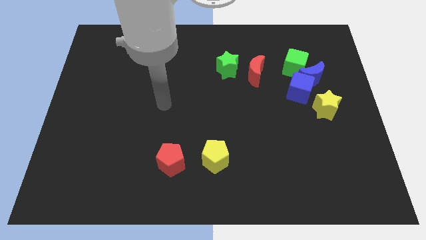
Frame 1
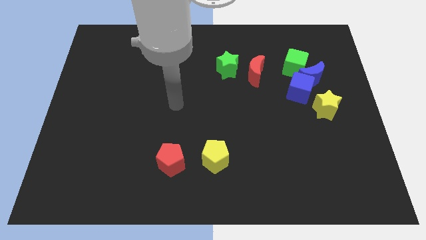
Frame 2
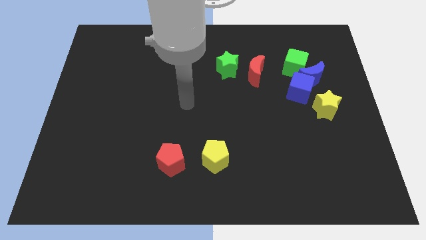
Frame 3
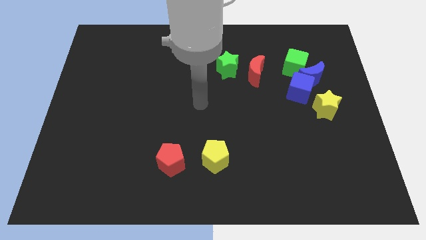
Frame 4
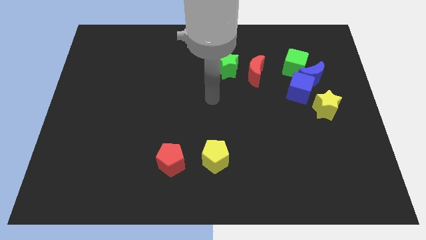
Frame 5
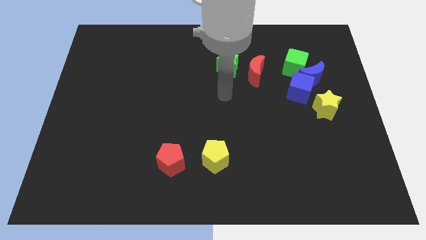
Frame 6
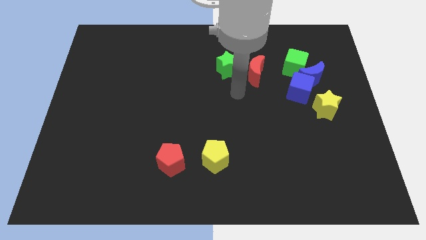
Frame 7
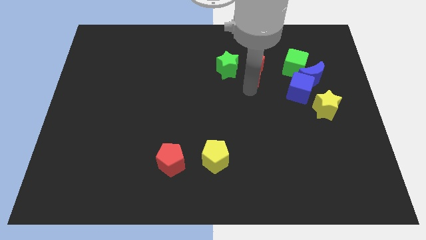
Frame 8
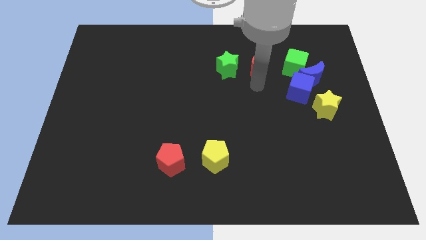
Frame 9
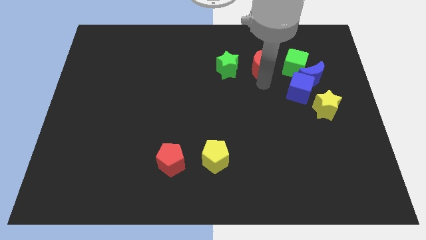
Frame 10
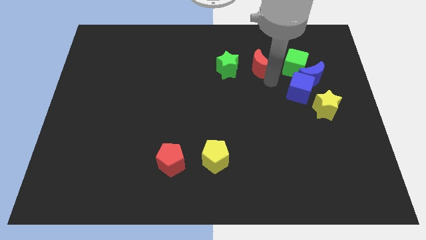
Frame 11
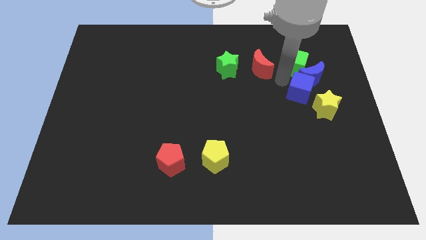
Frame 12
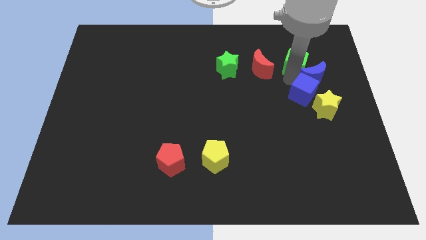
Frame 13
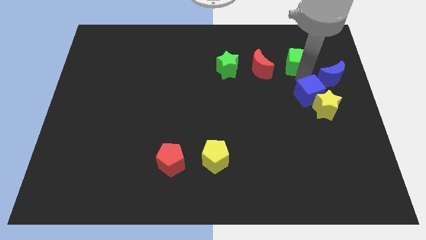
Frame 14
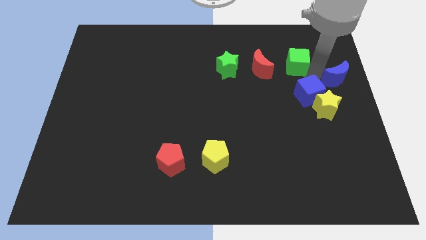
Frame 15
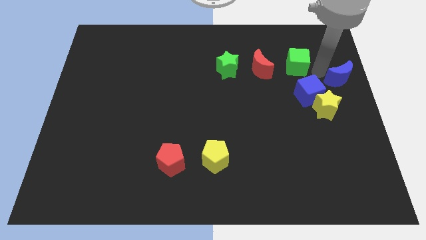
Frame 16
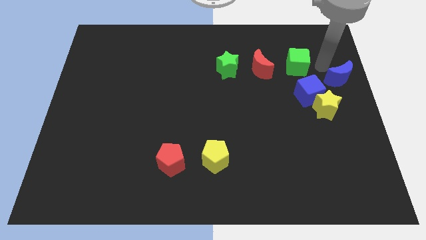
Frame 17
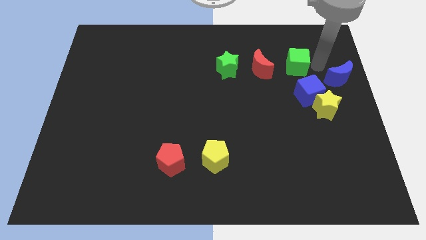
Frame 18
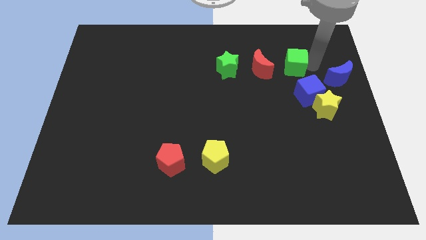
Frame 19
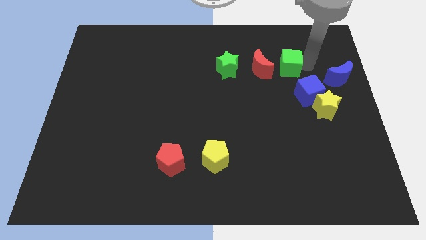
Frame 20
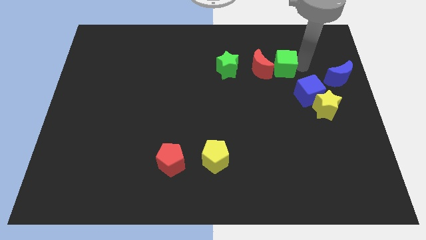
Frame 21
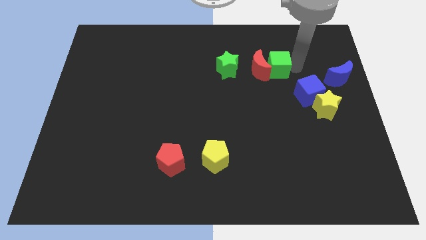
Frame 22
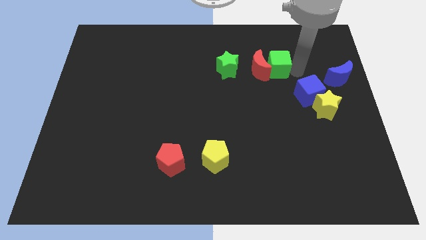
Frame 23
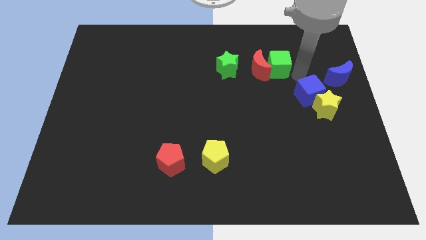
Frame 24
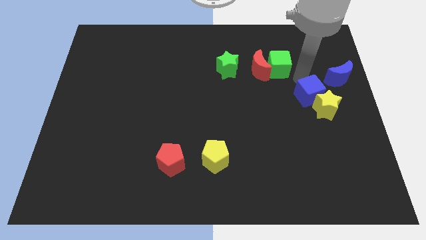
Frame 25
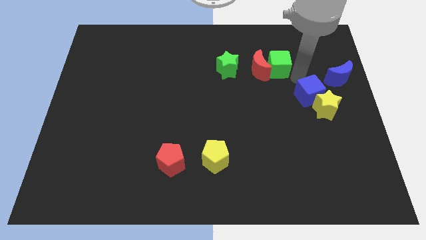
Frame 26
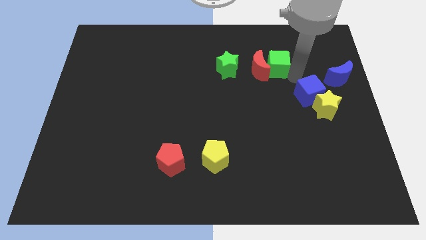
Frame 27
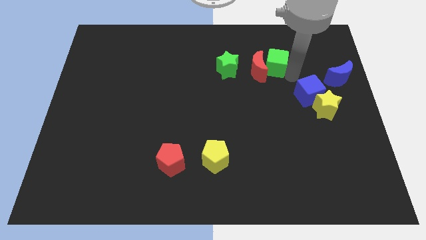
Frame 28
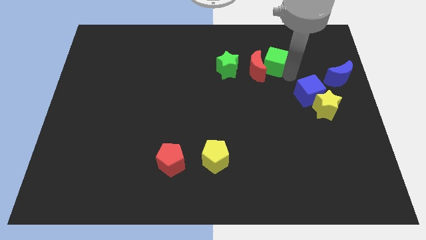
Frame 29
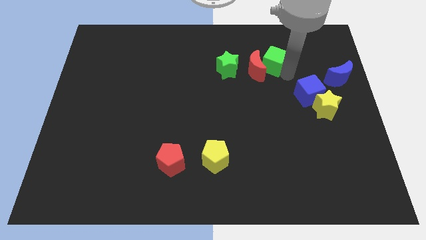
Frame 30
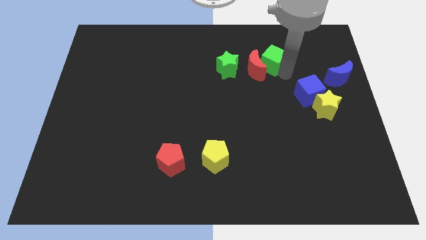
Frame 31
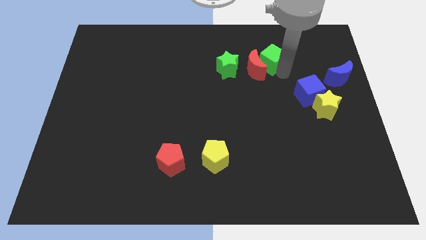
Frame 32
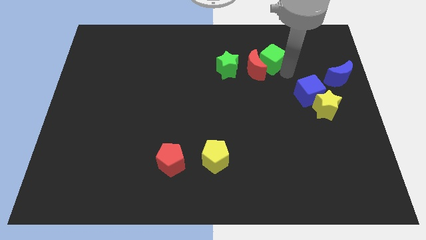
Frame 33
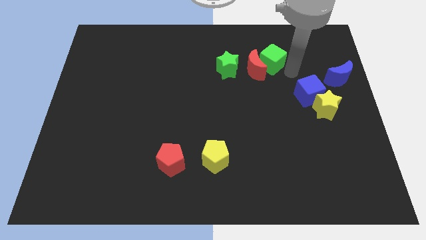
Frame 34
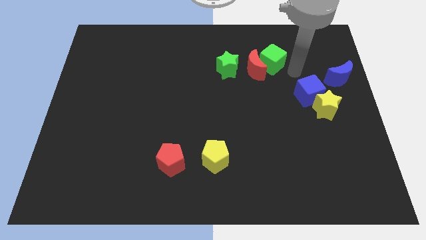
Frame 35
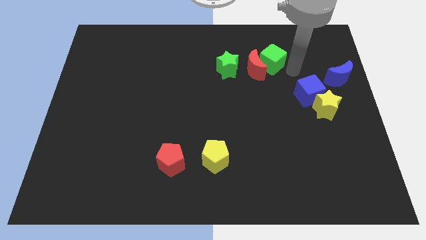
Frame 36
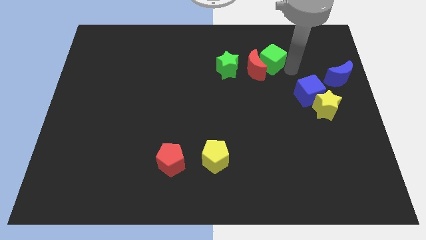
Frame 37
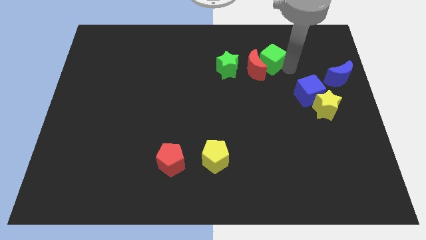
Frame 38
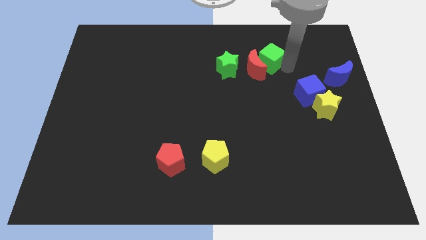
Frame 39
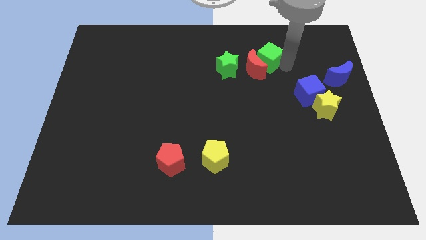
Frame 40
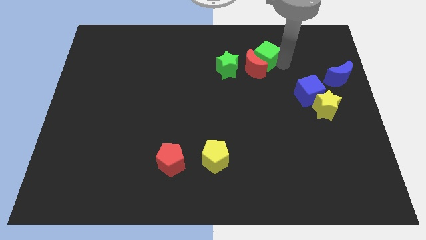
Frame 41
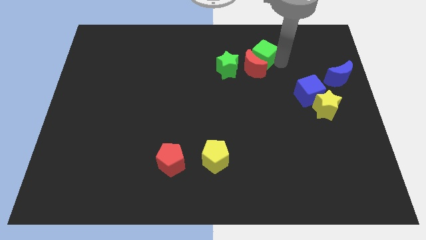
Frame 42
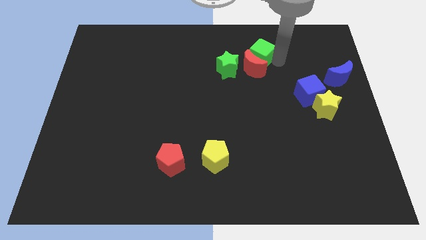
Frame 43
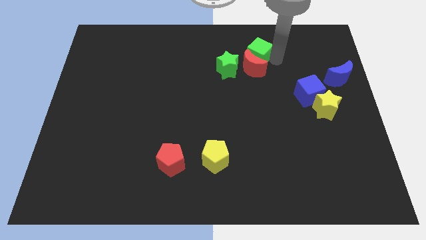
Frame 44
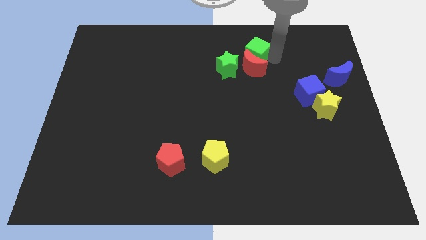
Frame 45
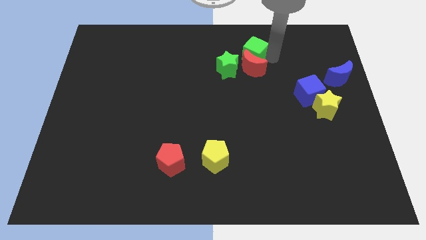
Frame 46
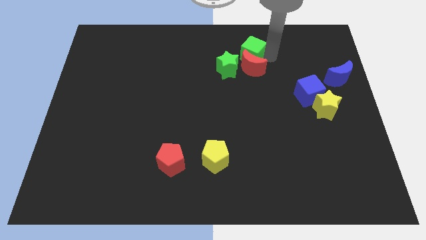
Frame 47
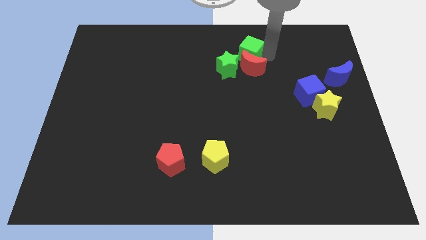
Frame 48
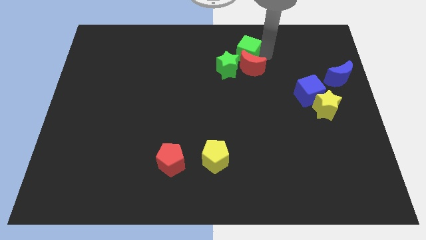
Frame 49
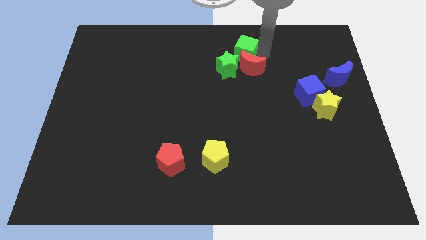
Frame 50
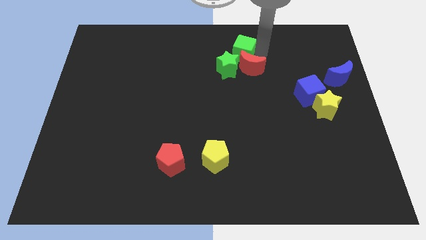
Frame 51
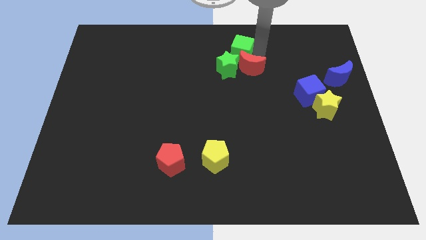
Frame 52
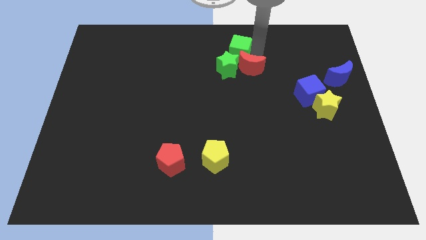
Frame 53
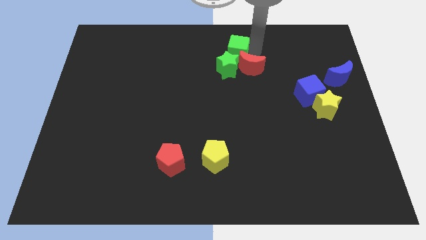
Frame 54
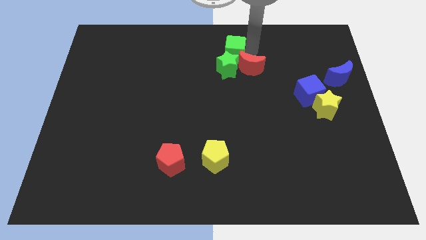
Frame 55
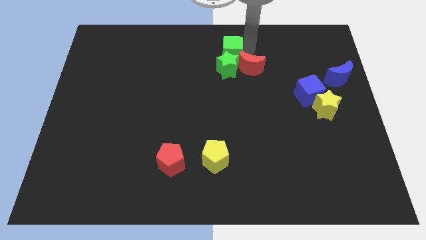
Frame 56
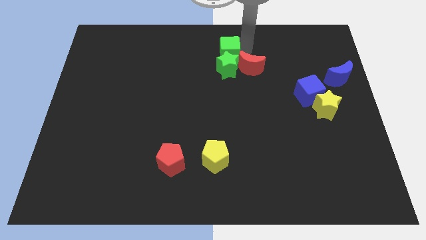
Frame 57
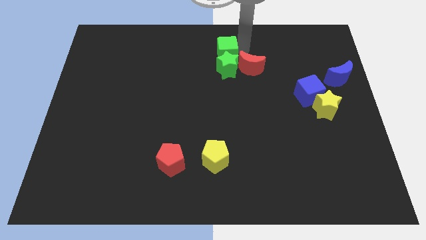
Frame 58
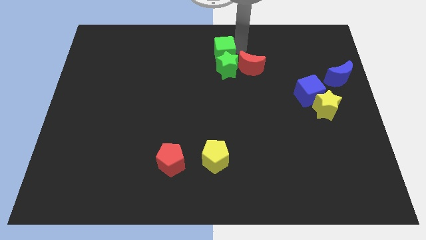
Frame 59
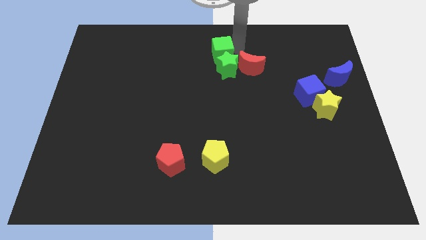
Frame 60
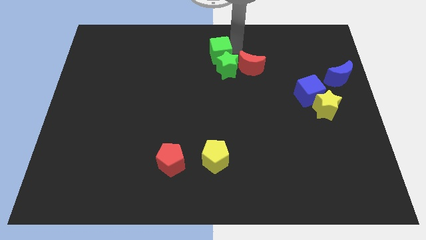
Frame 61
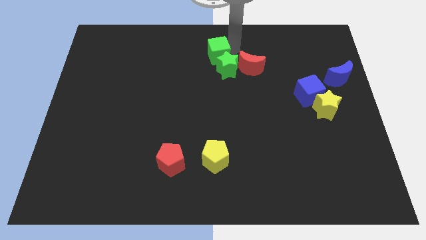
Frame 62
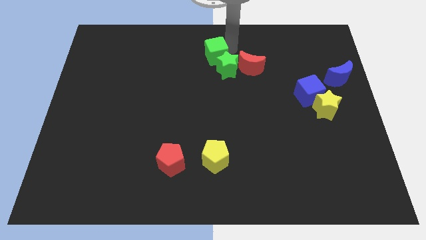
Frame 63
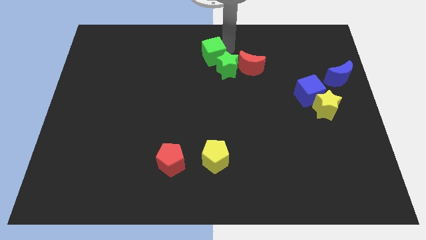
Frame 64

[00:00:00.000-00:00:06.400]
move the green cube left

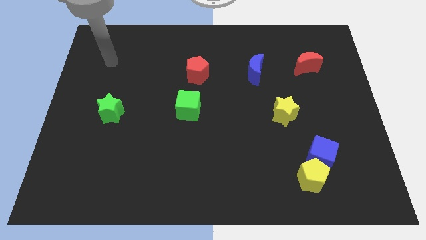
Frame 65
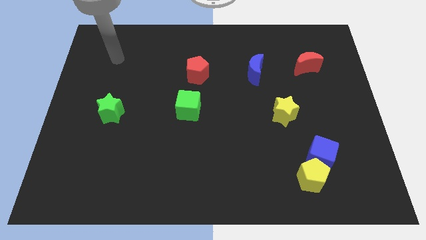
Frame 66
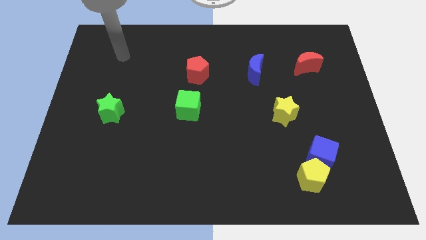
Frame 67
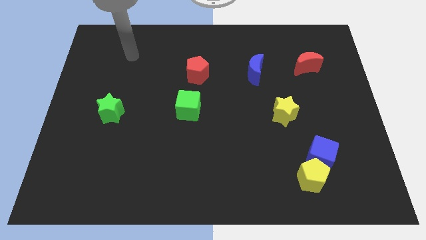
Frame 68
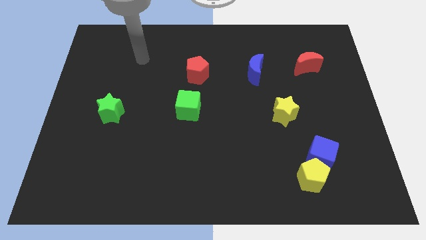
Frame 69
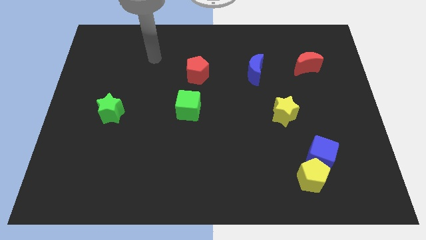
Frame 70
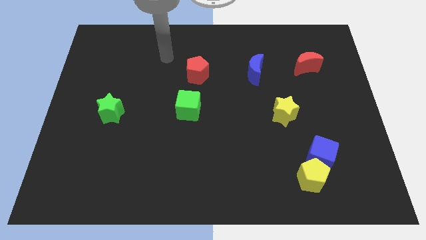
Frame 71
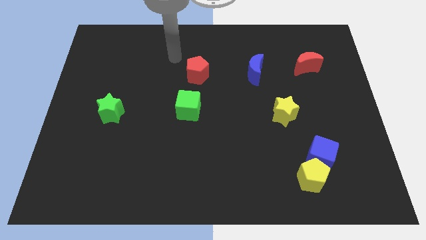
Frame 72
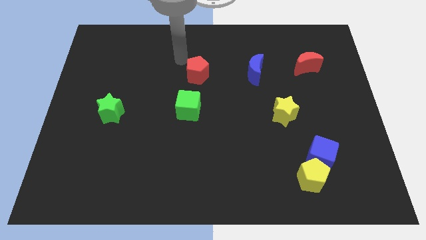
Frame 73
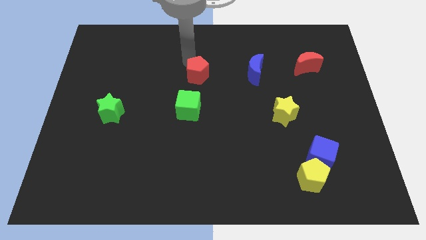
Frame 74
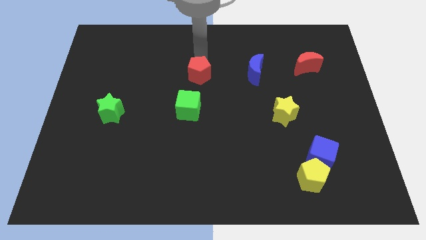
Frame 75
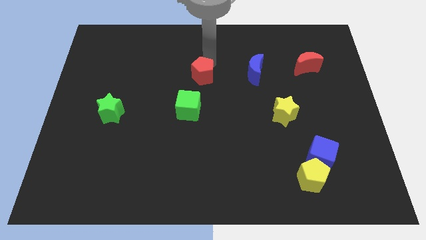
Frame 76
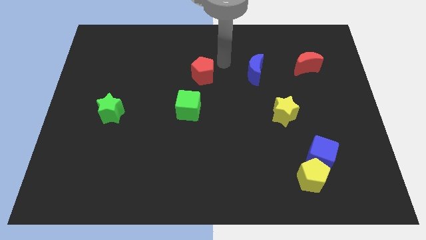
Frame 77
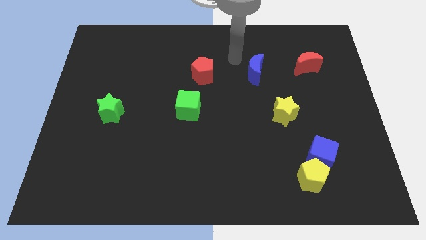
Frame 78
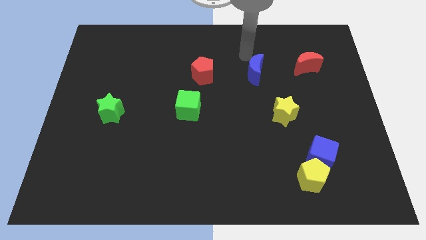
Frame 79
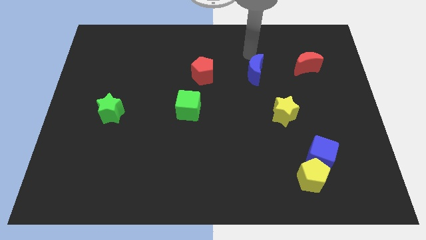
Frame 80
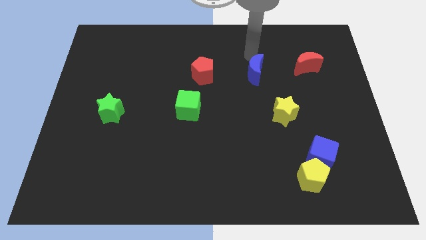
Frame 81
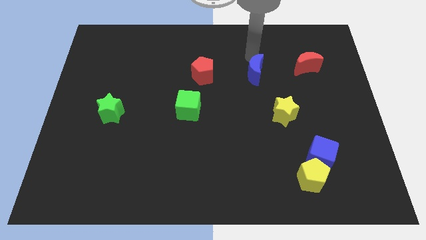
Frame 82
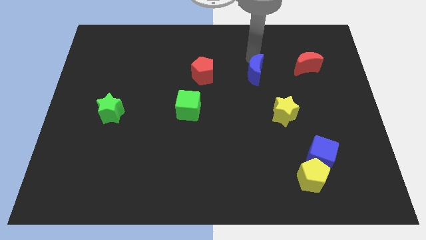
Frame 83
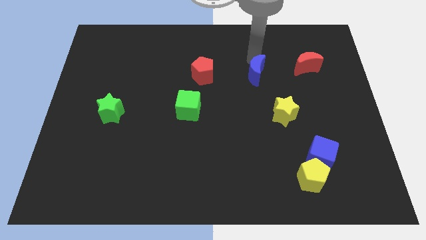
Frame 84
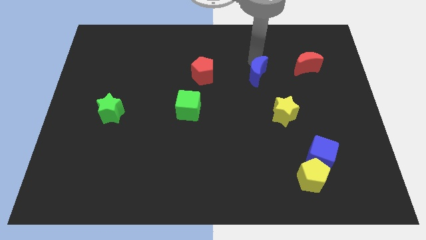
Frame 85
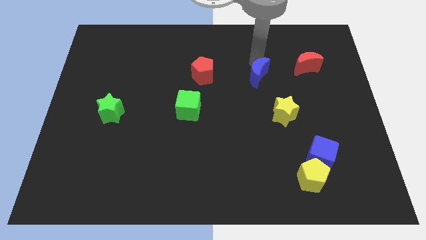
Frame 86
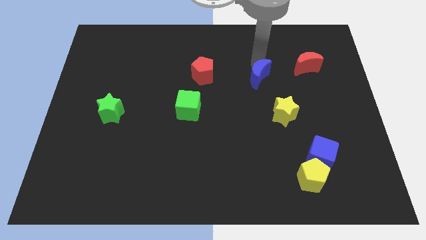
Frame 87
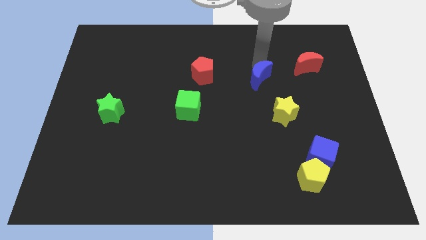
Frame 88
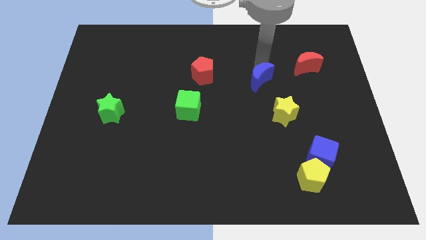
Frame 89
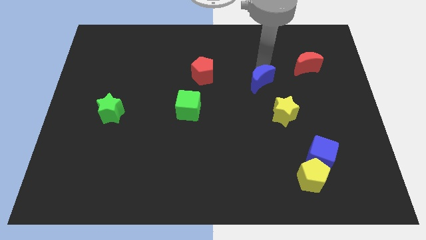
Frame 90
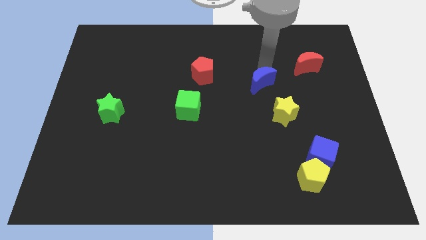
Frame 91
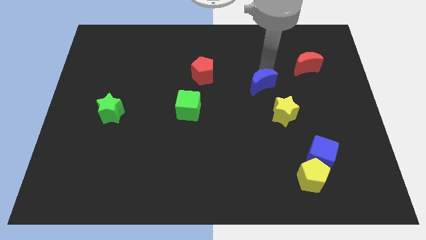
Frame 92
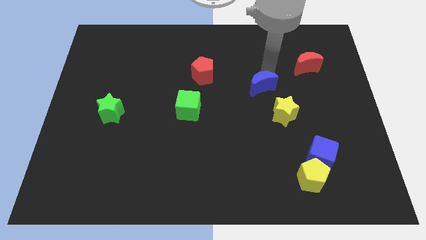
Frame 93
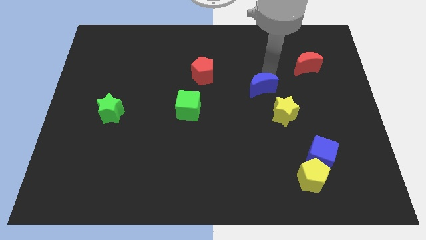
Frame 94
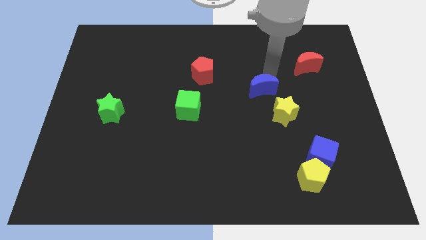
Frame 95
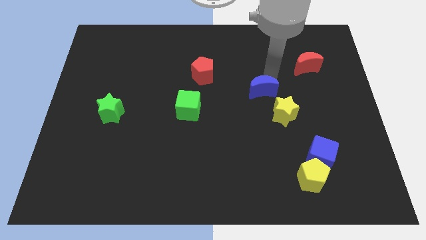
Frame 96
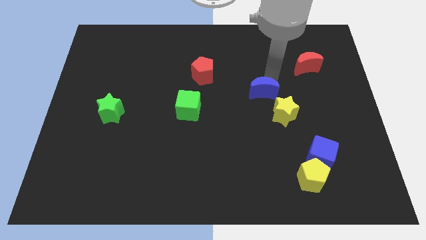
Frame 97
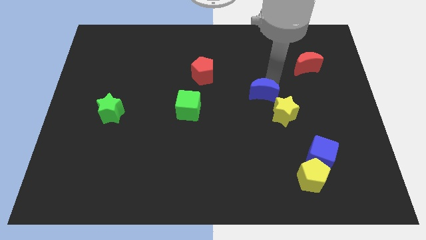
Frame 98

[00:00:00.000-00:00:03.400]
move the blue moon a little down
